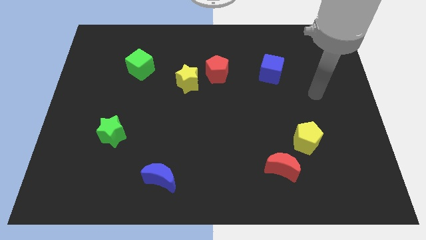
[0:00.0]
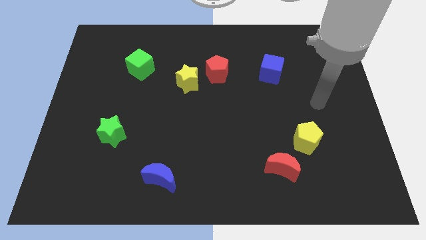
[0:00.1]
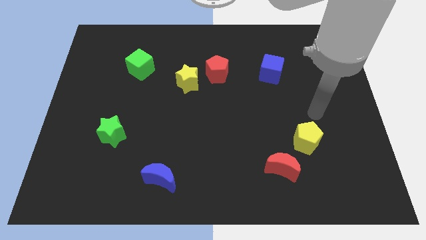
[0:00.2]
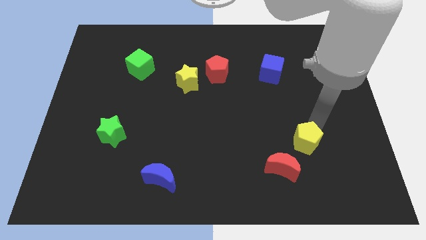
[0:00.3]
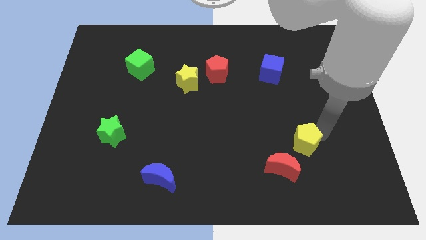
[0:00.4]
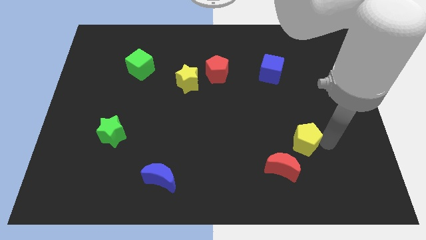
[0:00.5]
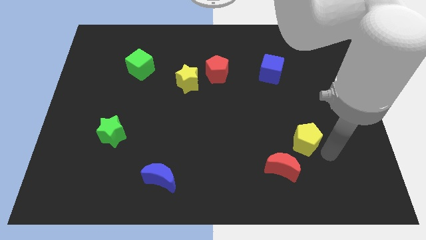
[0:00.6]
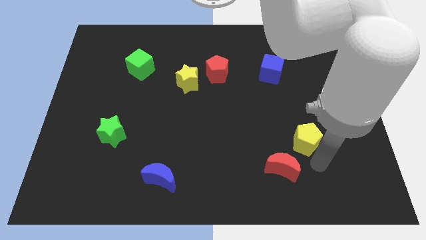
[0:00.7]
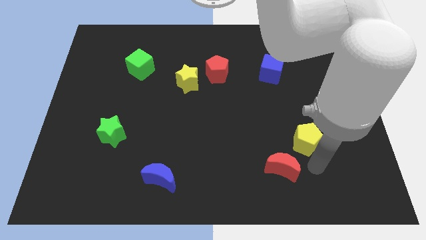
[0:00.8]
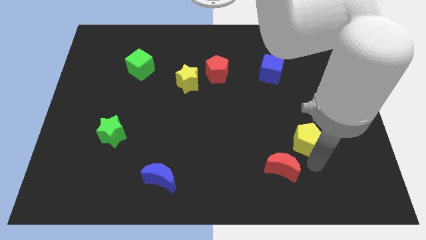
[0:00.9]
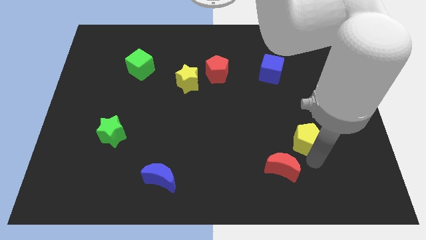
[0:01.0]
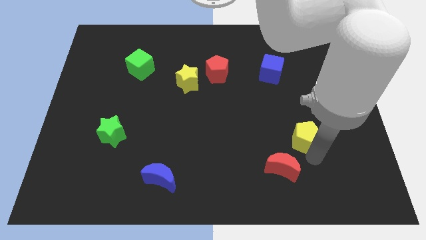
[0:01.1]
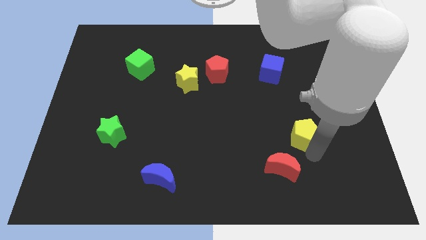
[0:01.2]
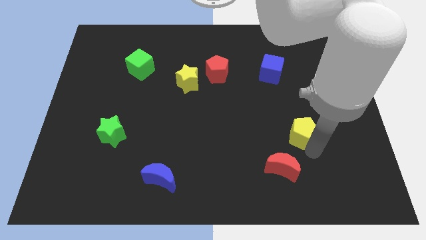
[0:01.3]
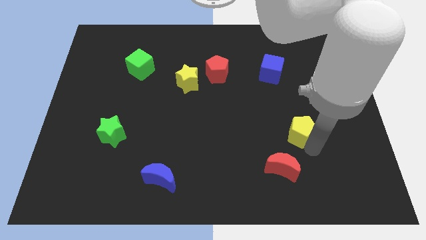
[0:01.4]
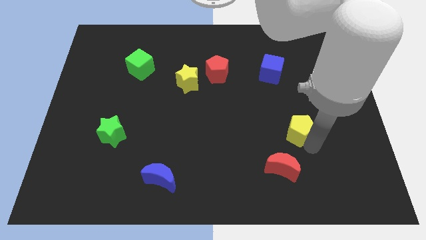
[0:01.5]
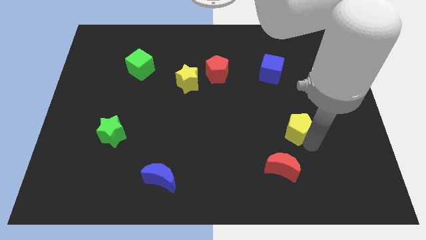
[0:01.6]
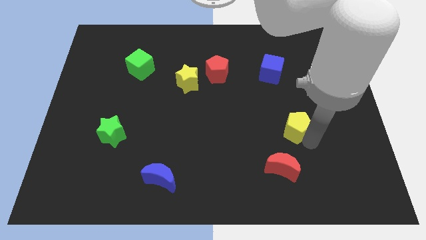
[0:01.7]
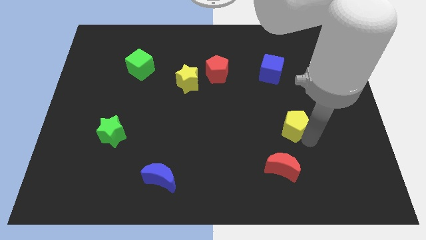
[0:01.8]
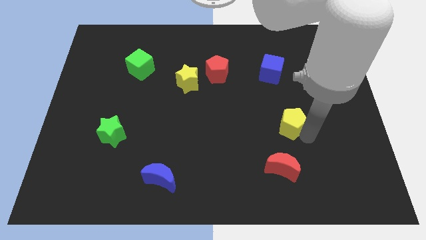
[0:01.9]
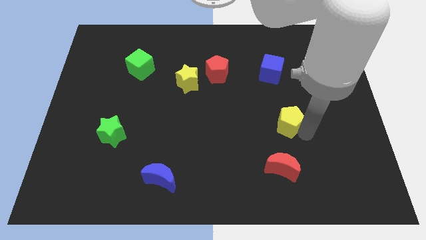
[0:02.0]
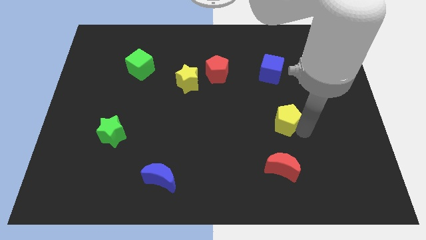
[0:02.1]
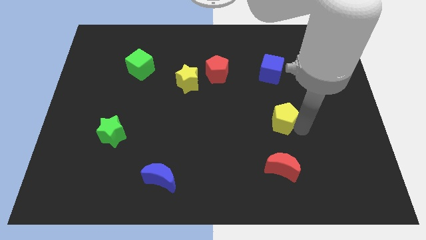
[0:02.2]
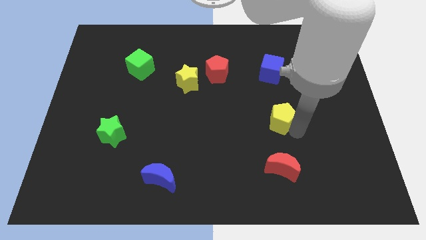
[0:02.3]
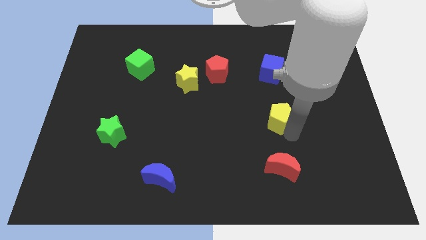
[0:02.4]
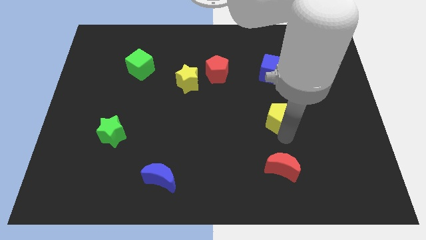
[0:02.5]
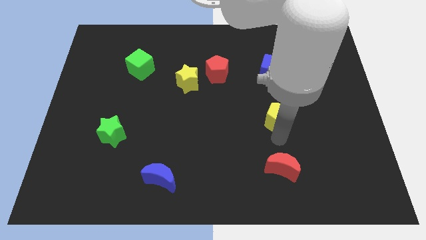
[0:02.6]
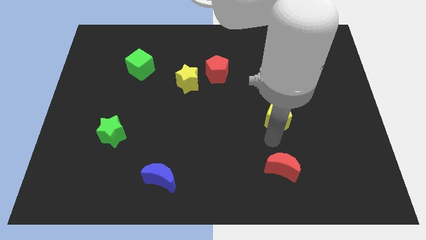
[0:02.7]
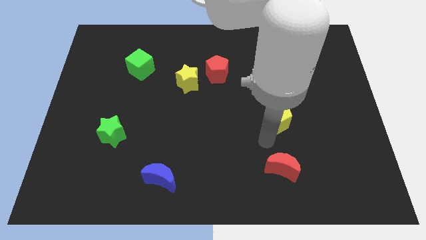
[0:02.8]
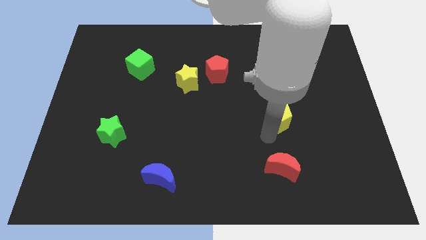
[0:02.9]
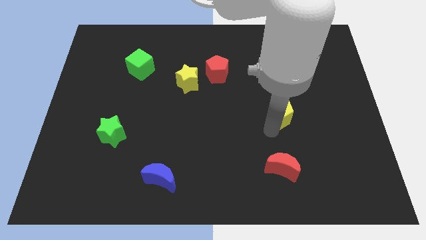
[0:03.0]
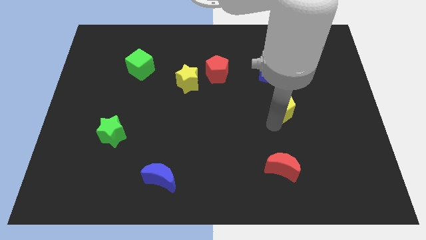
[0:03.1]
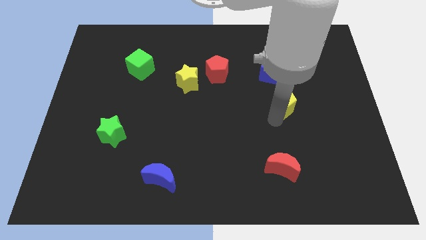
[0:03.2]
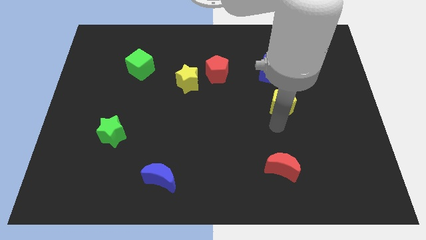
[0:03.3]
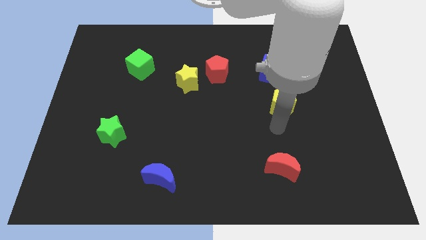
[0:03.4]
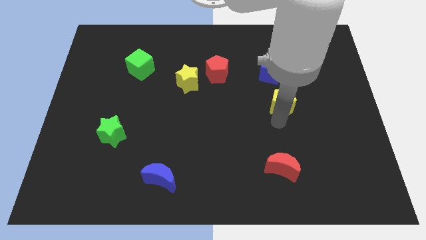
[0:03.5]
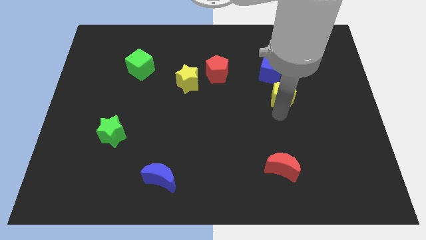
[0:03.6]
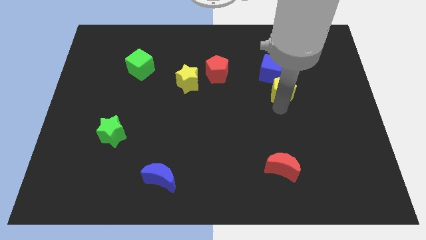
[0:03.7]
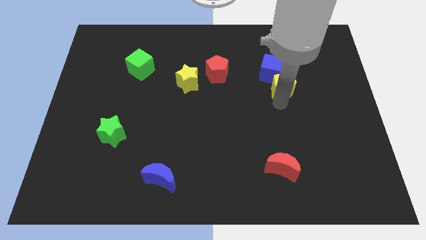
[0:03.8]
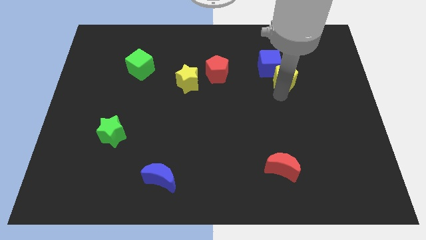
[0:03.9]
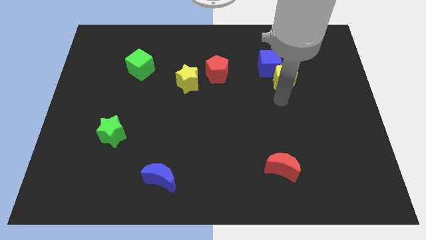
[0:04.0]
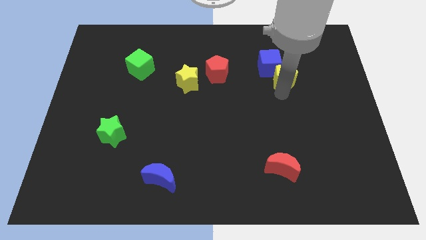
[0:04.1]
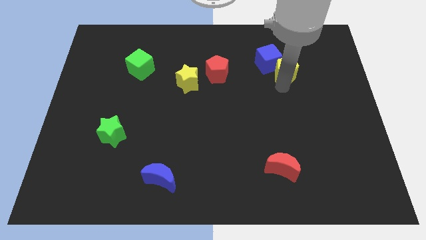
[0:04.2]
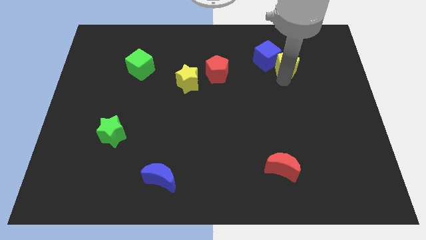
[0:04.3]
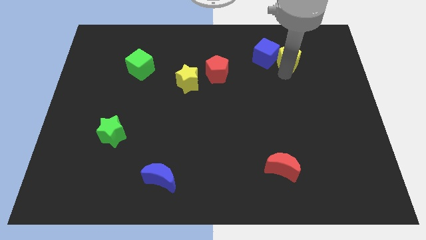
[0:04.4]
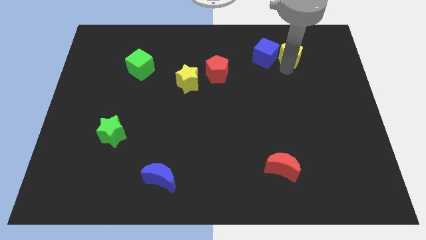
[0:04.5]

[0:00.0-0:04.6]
move the yellow pentagon to the top right of the blue cube

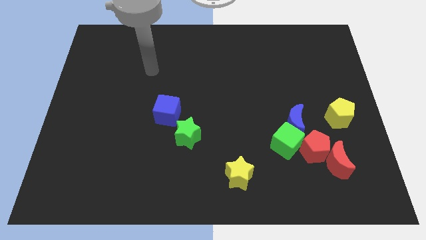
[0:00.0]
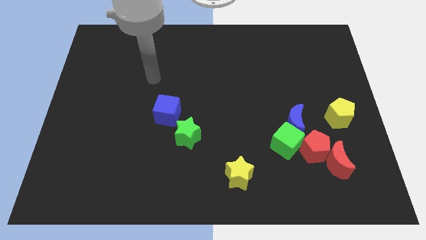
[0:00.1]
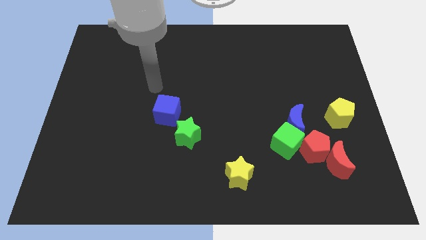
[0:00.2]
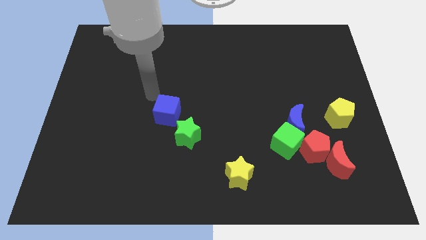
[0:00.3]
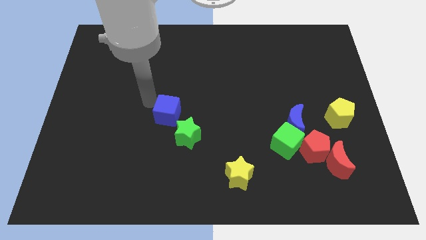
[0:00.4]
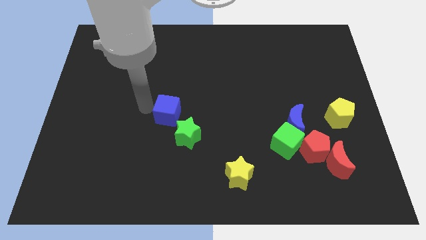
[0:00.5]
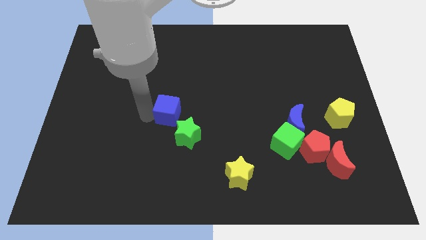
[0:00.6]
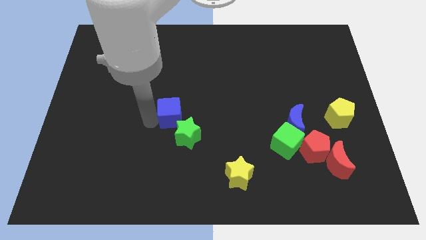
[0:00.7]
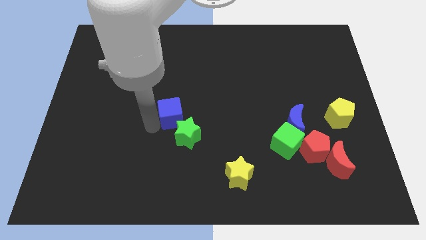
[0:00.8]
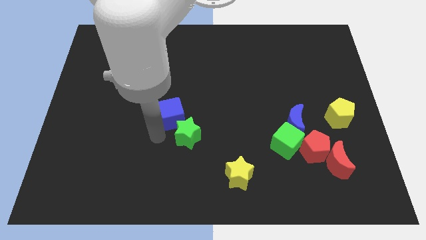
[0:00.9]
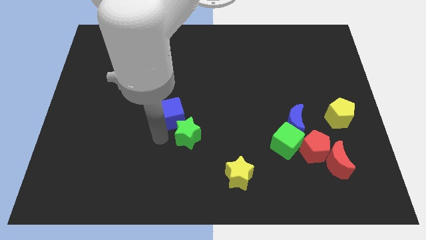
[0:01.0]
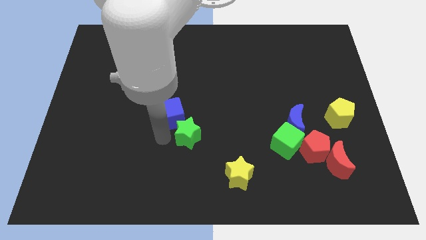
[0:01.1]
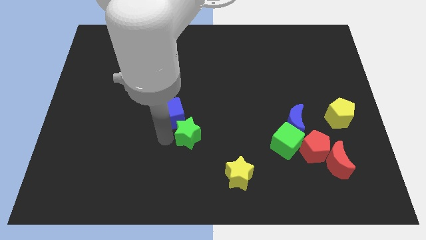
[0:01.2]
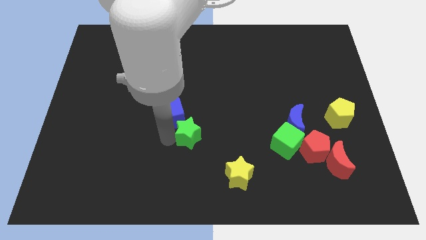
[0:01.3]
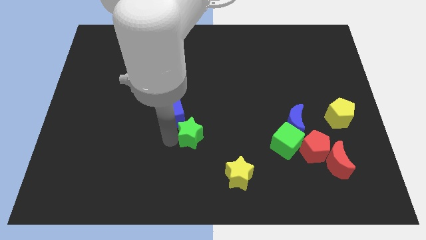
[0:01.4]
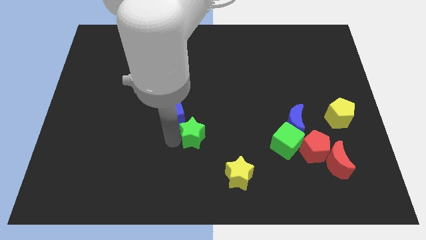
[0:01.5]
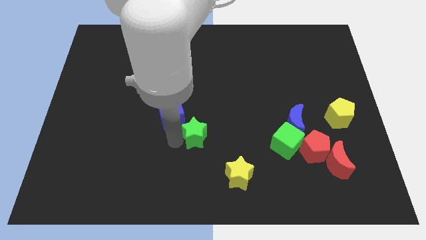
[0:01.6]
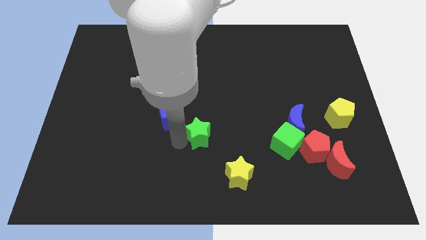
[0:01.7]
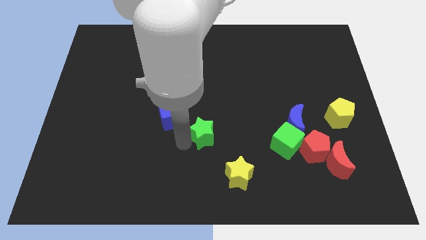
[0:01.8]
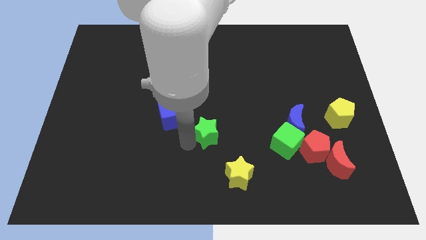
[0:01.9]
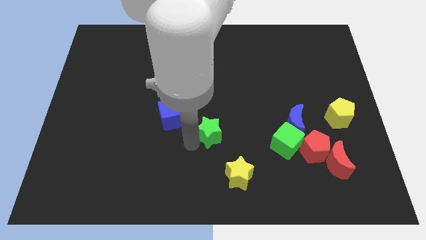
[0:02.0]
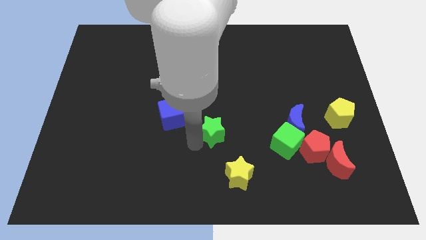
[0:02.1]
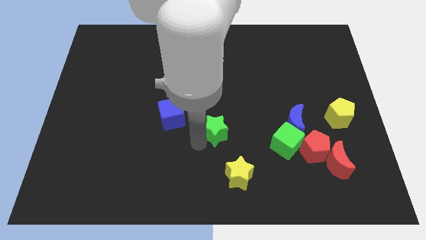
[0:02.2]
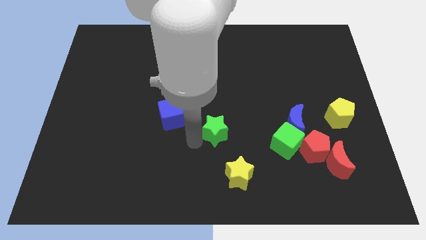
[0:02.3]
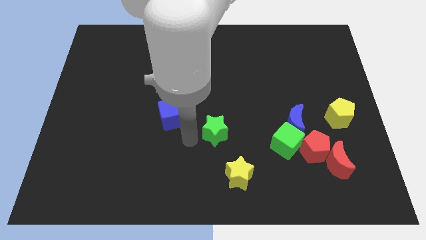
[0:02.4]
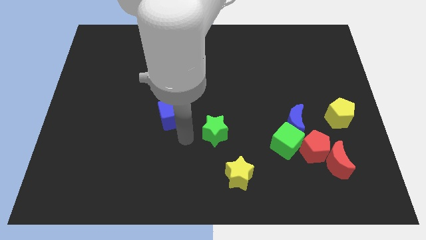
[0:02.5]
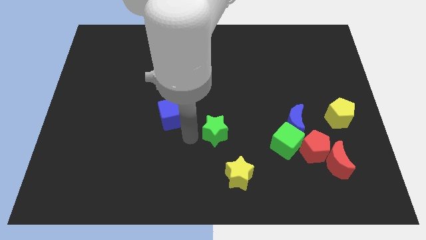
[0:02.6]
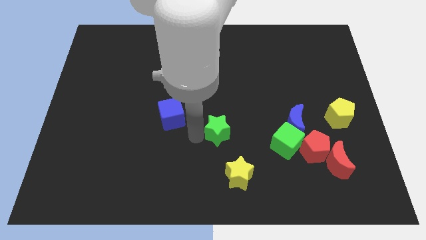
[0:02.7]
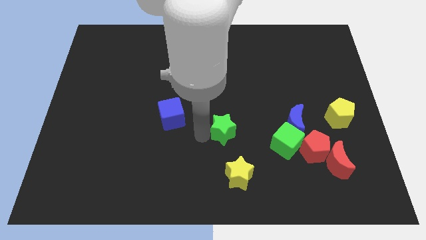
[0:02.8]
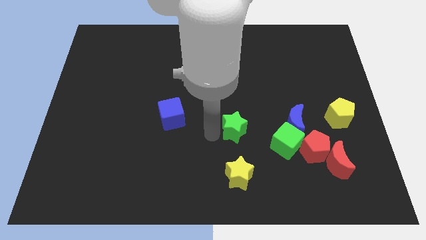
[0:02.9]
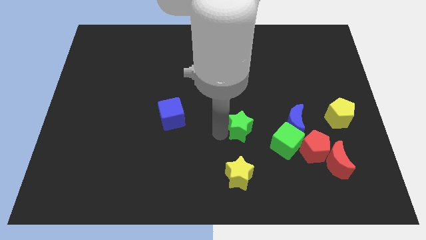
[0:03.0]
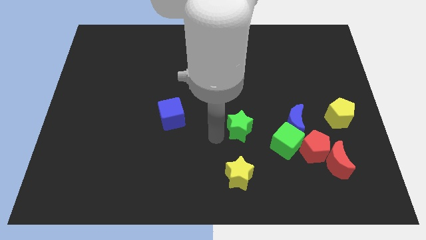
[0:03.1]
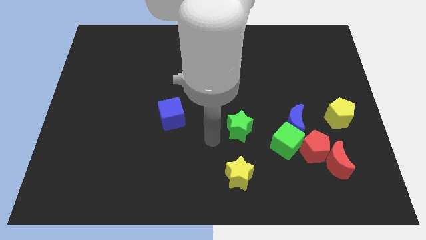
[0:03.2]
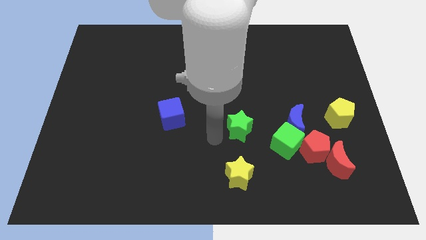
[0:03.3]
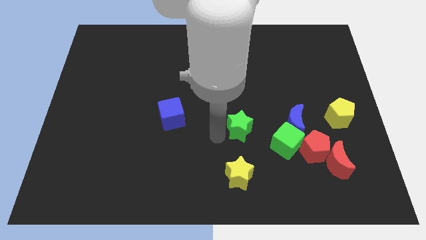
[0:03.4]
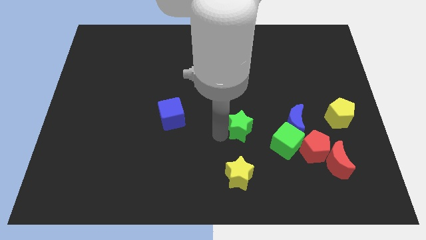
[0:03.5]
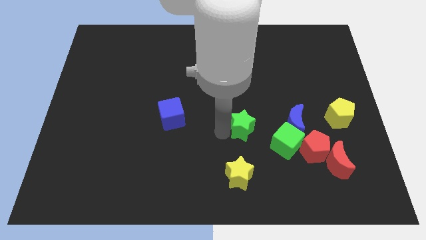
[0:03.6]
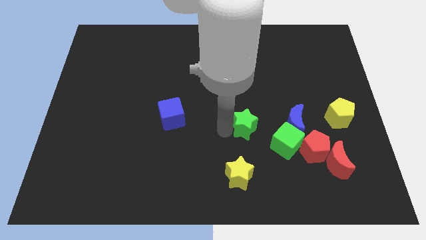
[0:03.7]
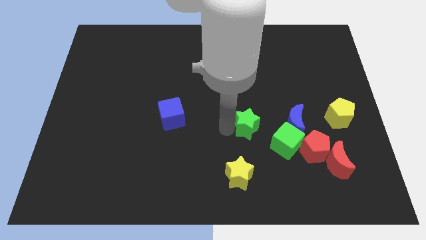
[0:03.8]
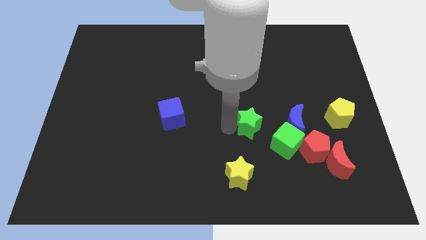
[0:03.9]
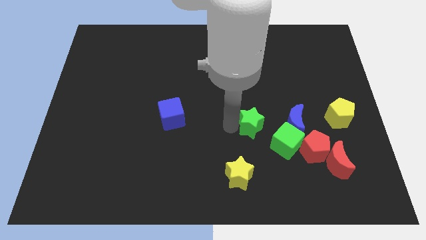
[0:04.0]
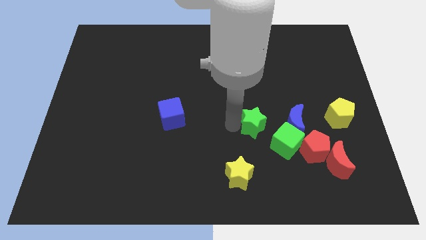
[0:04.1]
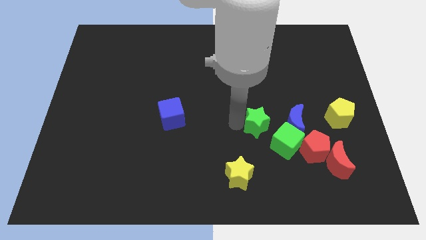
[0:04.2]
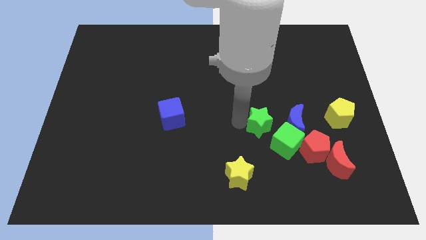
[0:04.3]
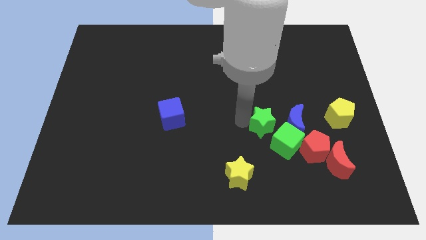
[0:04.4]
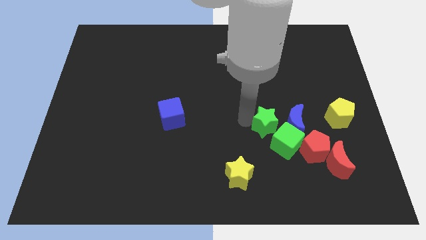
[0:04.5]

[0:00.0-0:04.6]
push the green star diagonally up and to the left of the red pentagon
